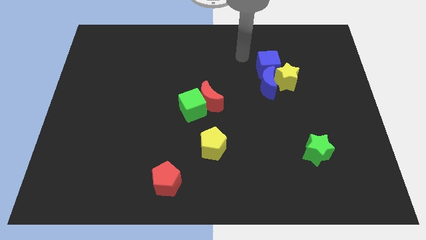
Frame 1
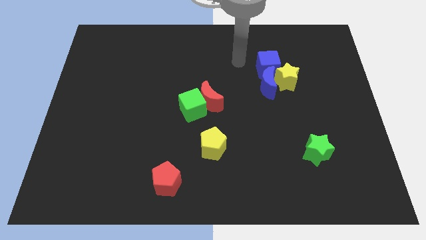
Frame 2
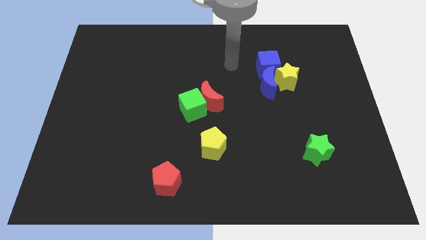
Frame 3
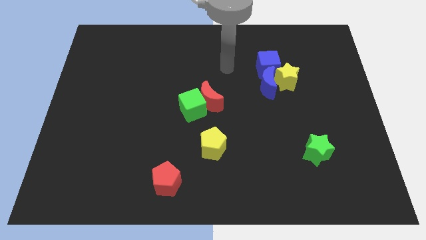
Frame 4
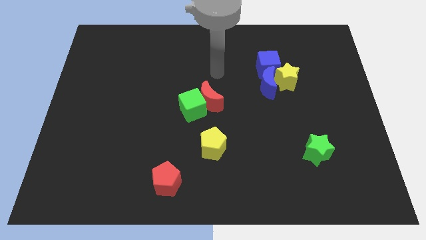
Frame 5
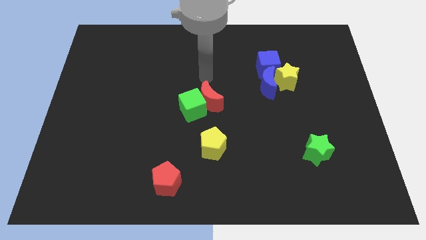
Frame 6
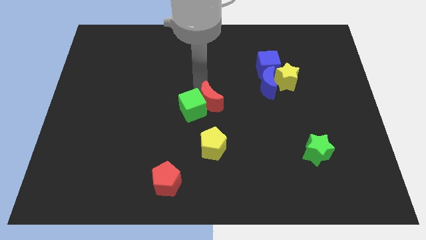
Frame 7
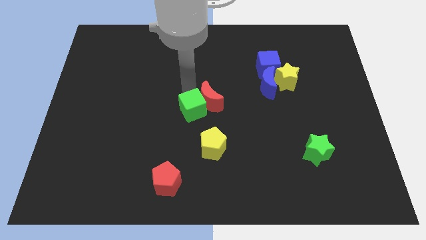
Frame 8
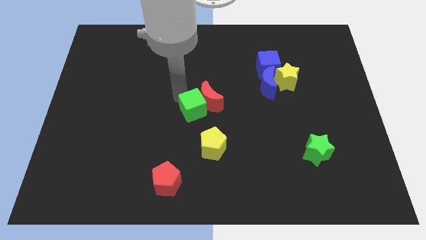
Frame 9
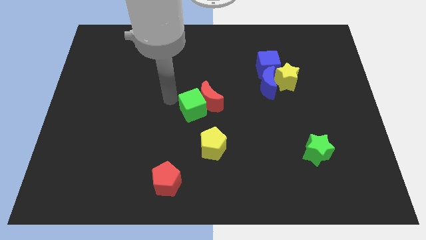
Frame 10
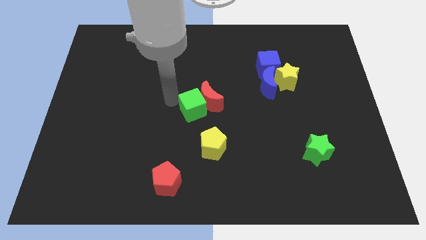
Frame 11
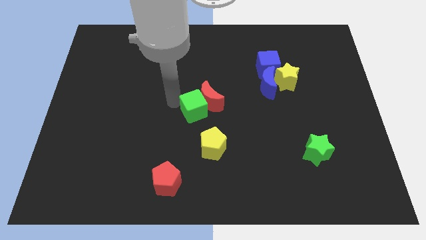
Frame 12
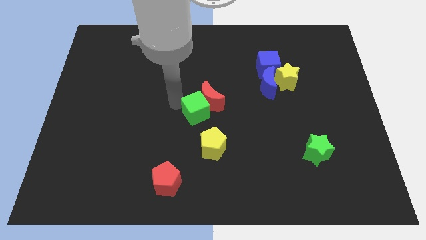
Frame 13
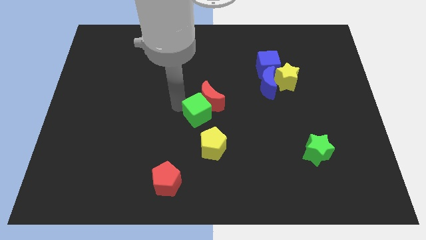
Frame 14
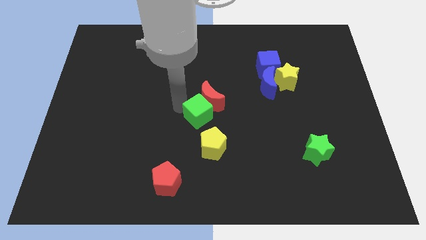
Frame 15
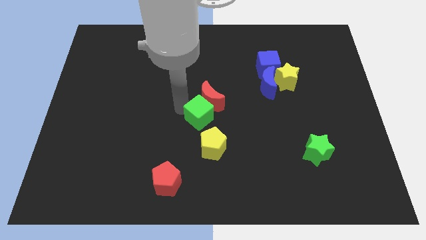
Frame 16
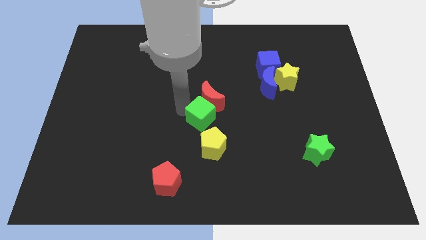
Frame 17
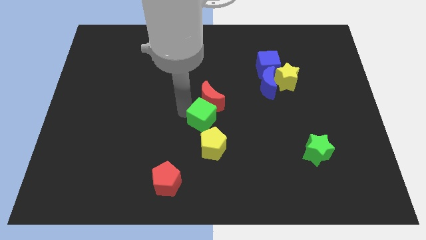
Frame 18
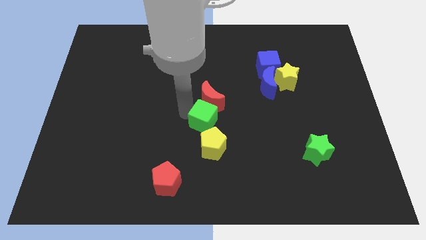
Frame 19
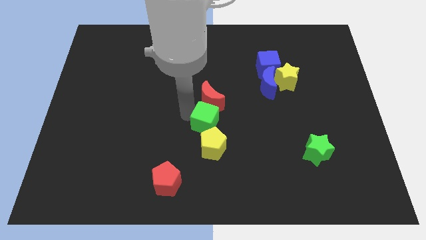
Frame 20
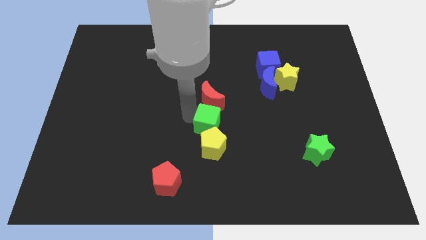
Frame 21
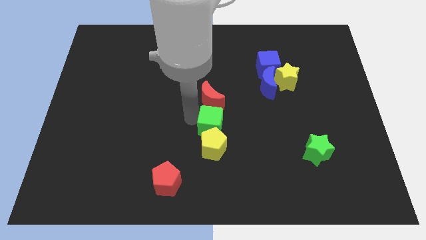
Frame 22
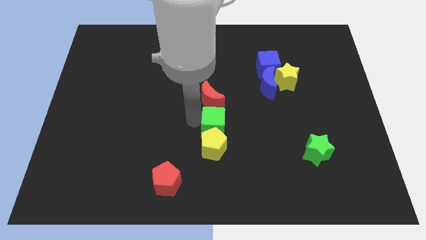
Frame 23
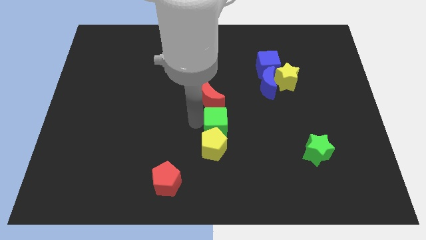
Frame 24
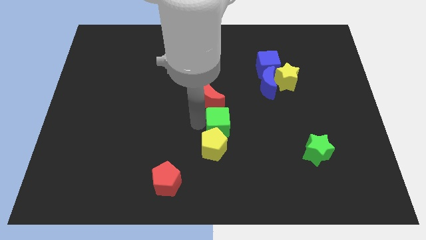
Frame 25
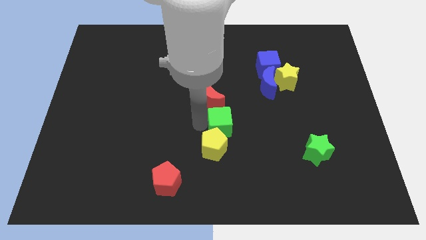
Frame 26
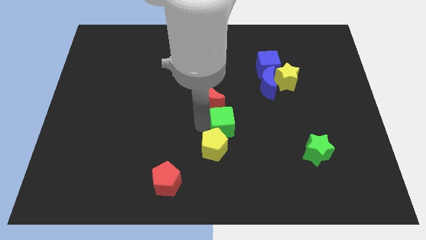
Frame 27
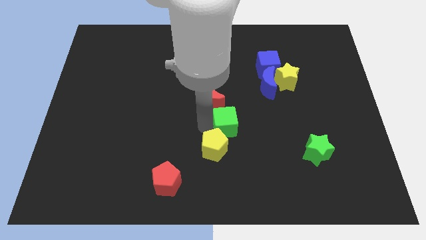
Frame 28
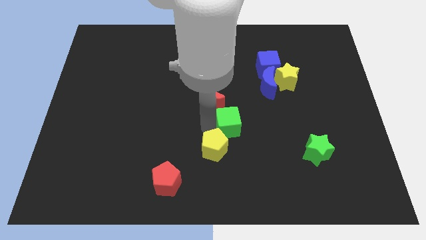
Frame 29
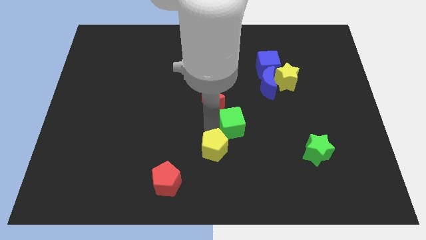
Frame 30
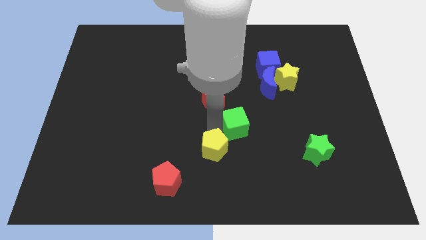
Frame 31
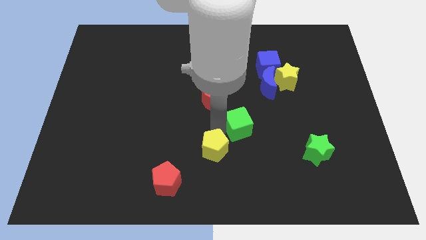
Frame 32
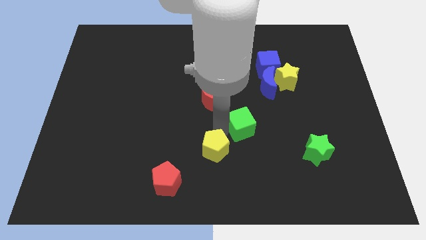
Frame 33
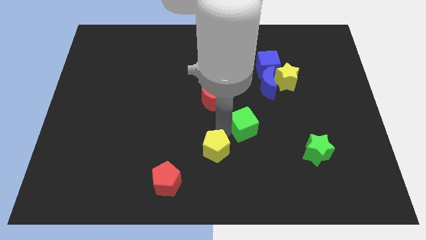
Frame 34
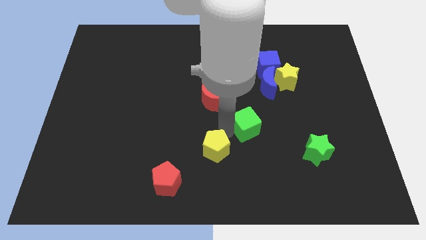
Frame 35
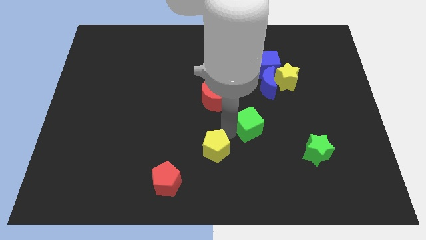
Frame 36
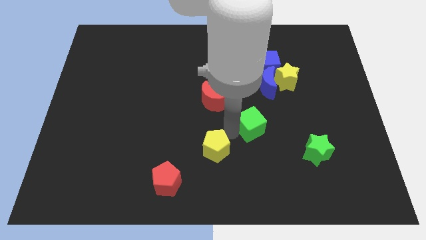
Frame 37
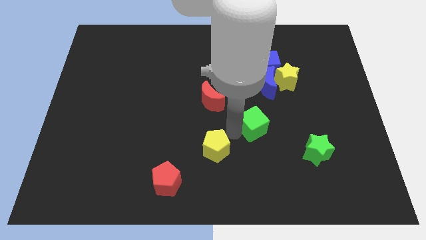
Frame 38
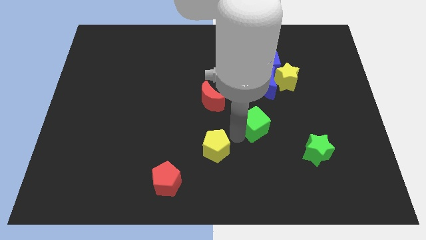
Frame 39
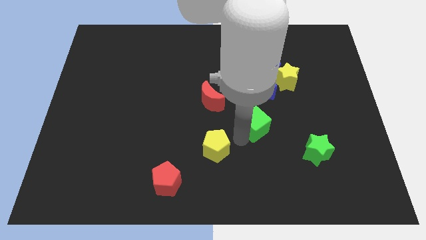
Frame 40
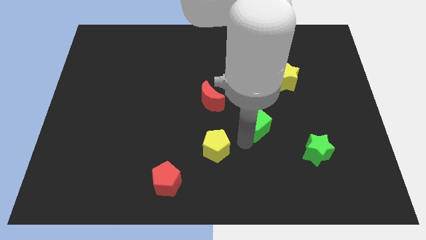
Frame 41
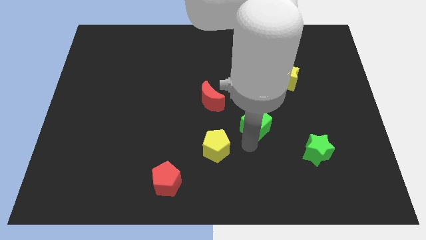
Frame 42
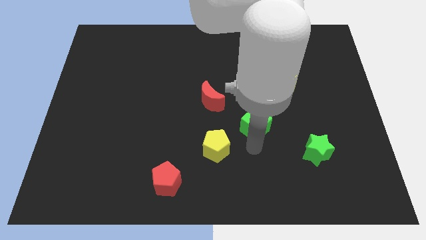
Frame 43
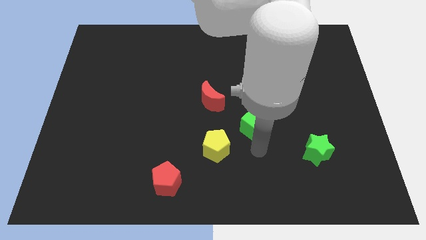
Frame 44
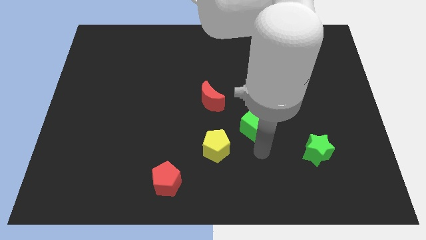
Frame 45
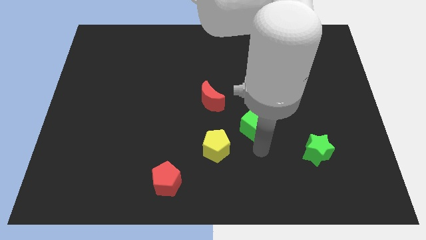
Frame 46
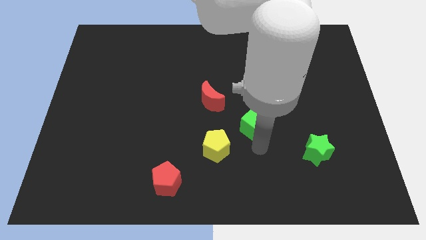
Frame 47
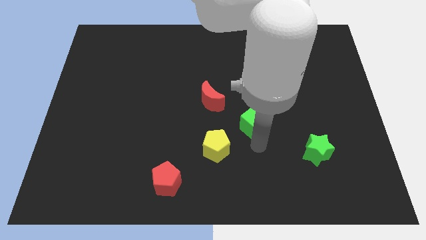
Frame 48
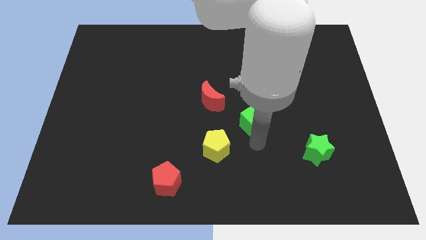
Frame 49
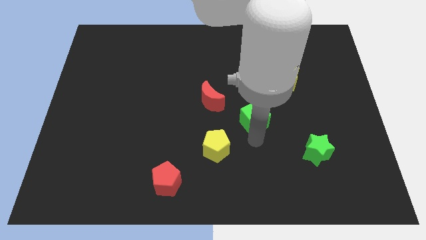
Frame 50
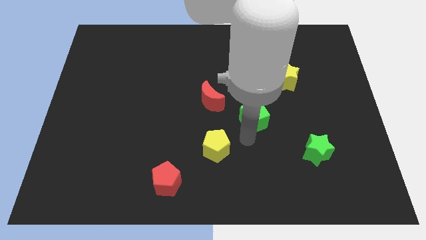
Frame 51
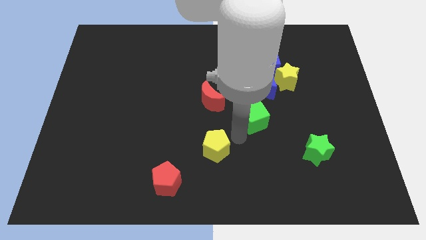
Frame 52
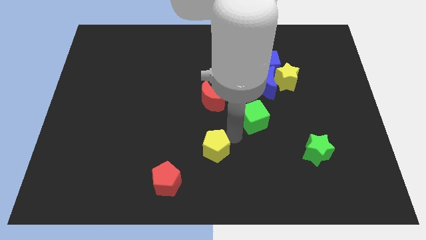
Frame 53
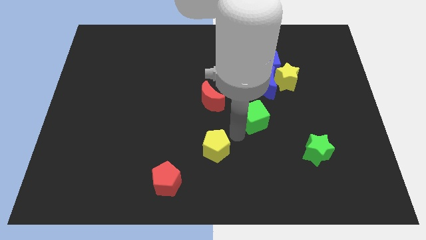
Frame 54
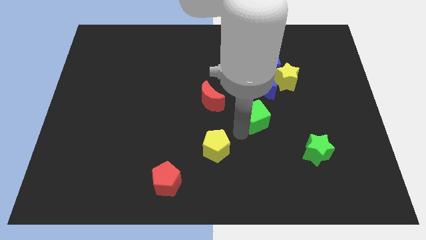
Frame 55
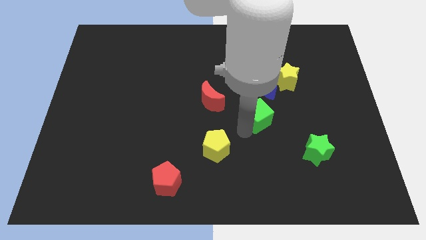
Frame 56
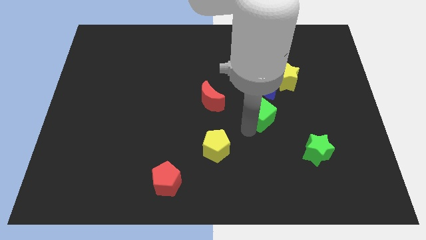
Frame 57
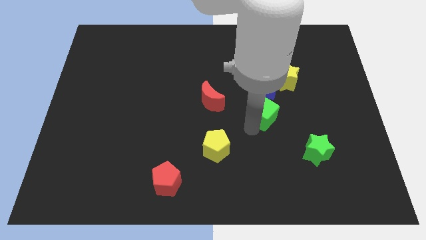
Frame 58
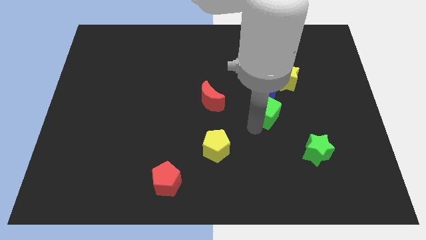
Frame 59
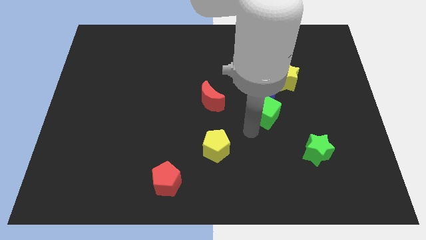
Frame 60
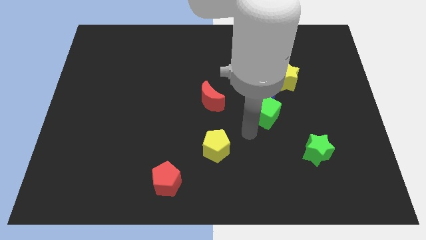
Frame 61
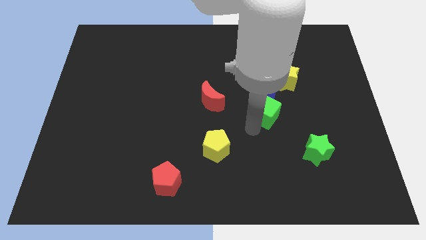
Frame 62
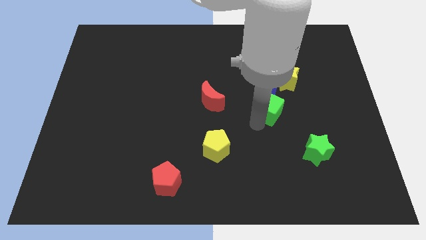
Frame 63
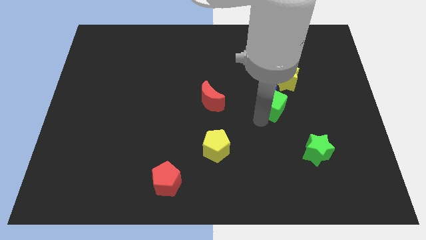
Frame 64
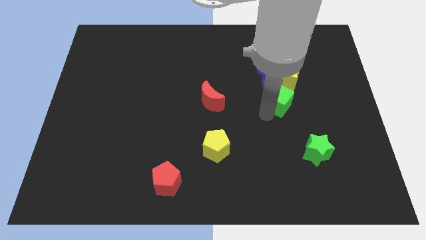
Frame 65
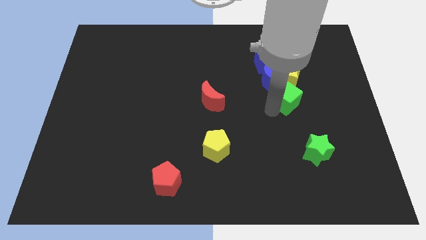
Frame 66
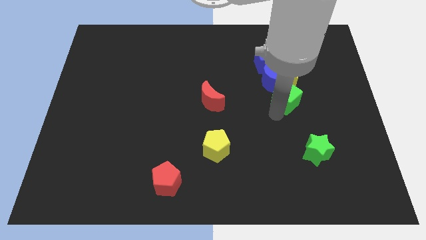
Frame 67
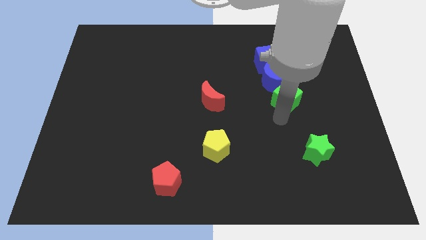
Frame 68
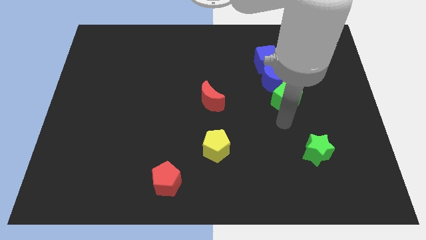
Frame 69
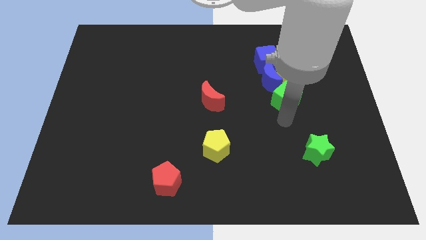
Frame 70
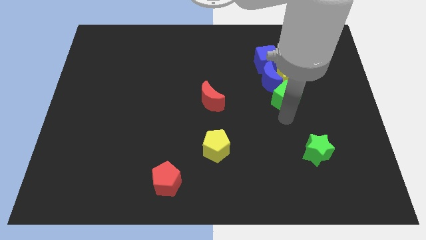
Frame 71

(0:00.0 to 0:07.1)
put the green cube to the yellow star
